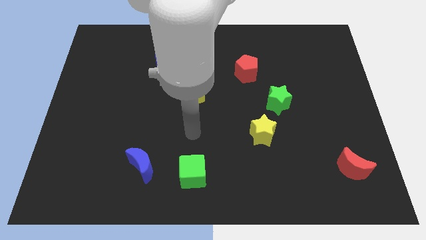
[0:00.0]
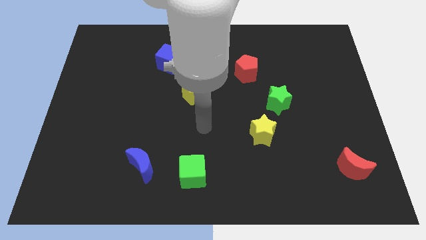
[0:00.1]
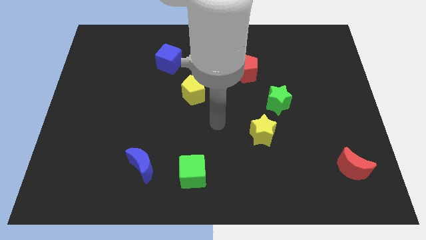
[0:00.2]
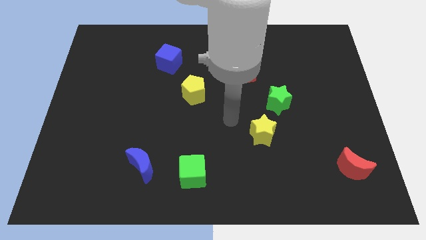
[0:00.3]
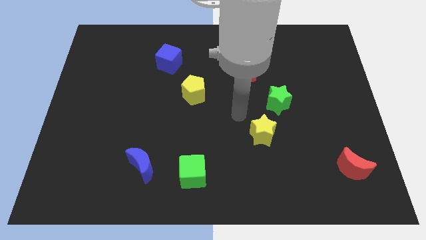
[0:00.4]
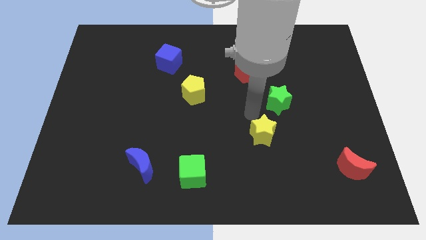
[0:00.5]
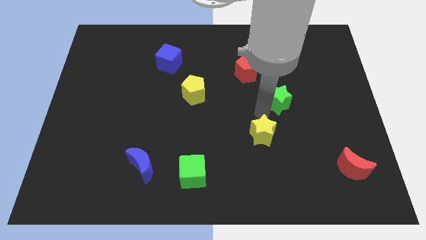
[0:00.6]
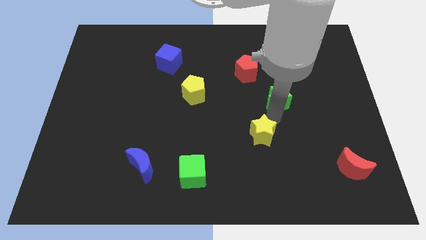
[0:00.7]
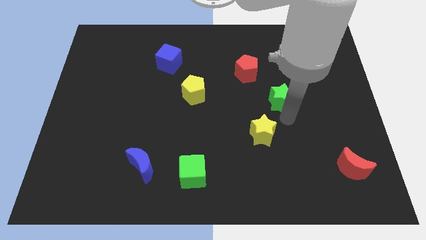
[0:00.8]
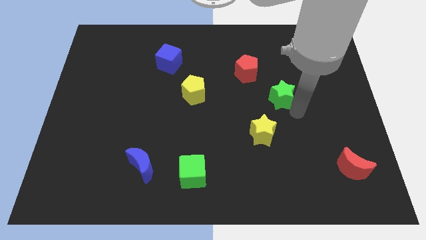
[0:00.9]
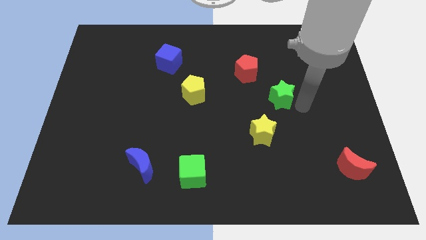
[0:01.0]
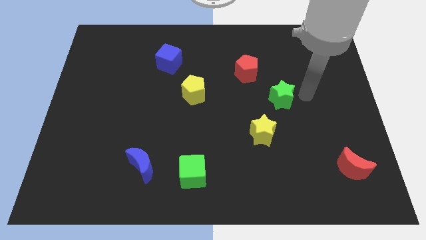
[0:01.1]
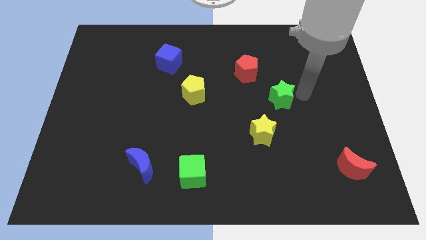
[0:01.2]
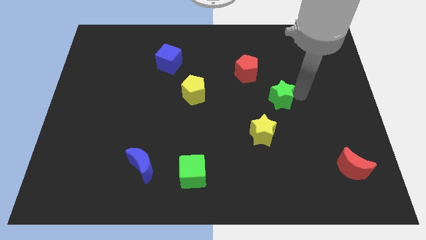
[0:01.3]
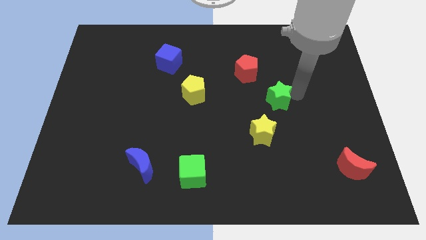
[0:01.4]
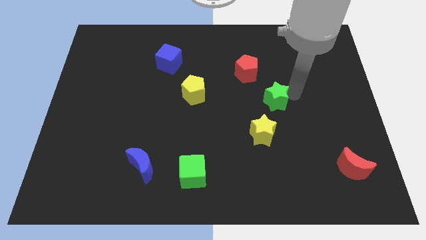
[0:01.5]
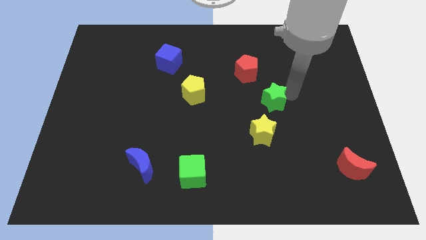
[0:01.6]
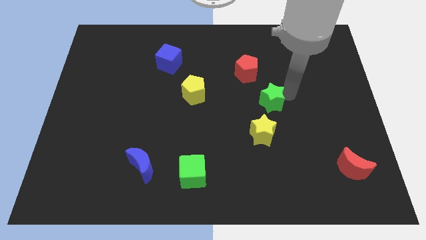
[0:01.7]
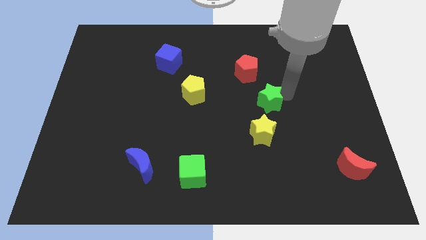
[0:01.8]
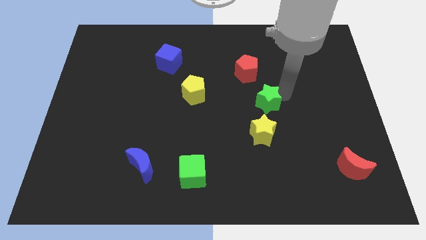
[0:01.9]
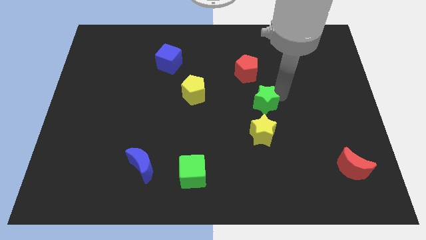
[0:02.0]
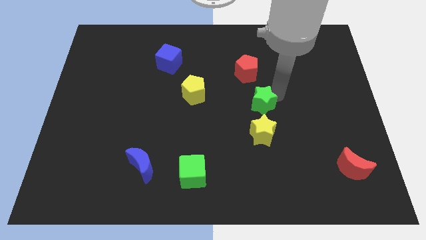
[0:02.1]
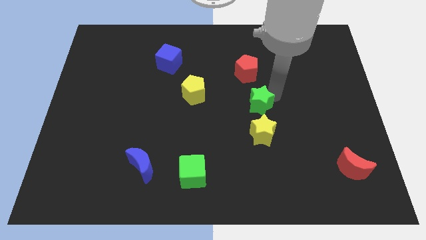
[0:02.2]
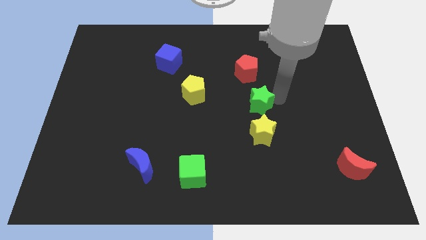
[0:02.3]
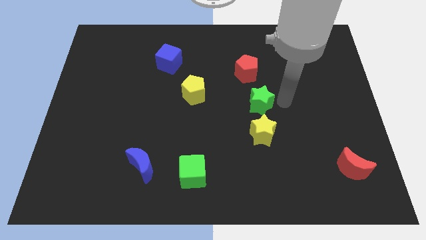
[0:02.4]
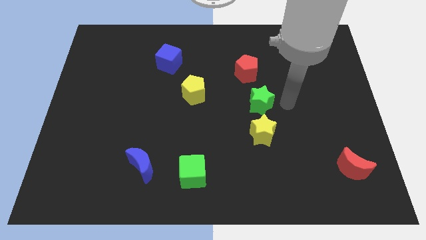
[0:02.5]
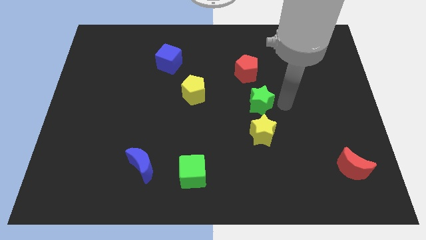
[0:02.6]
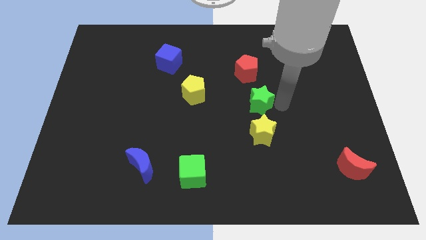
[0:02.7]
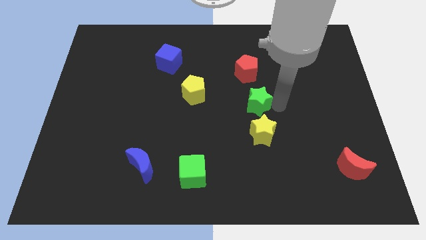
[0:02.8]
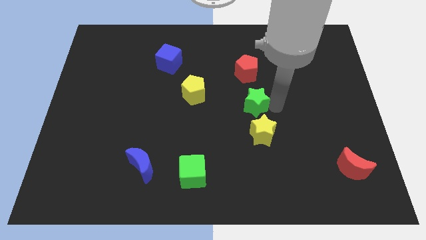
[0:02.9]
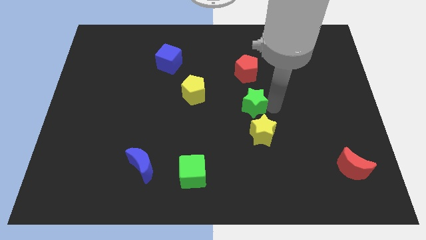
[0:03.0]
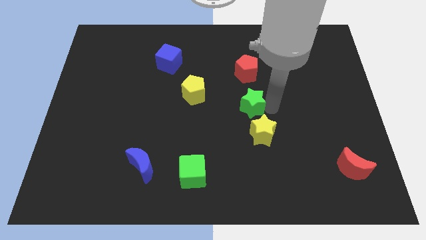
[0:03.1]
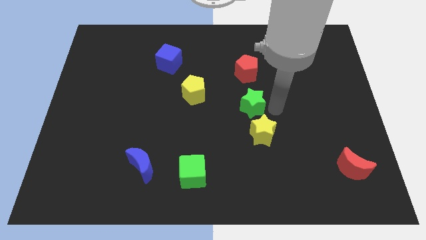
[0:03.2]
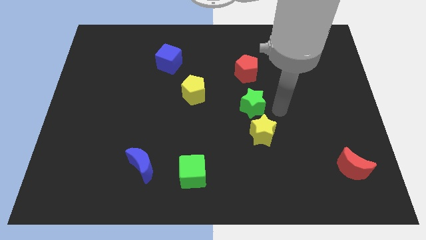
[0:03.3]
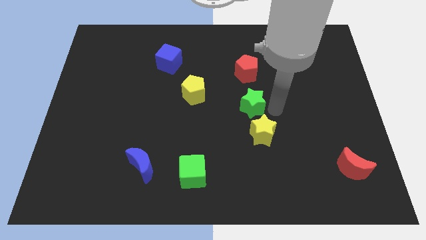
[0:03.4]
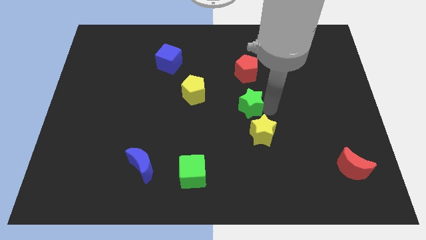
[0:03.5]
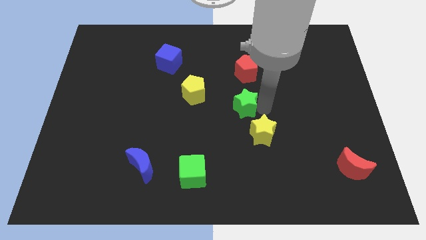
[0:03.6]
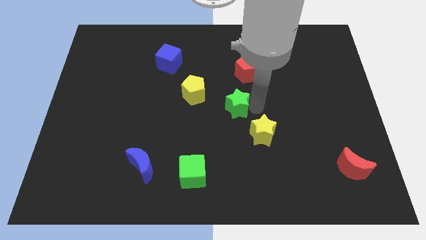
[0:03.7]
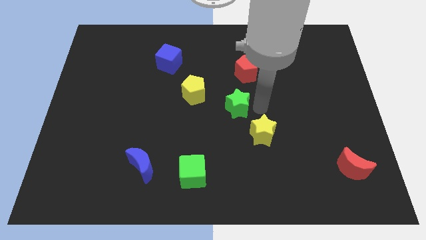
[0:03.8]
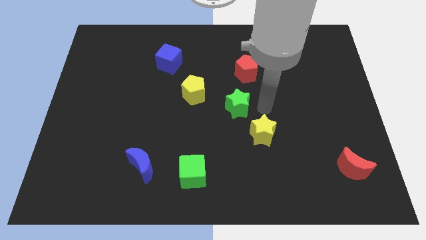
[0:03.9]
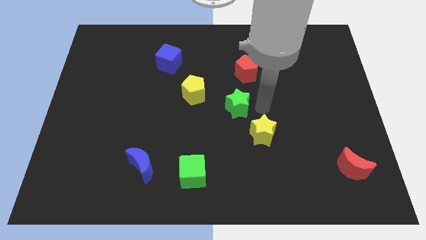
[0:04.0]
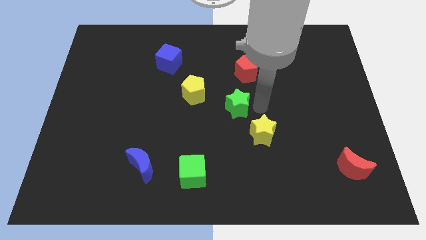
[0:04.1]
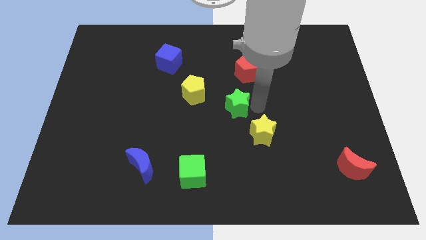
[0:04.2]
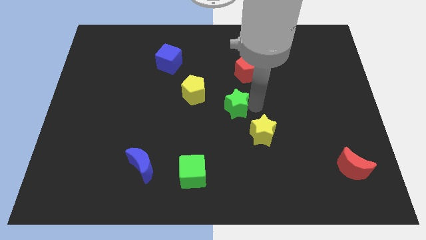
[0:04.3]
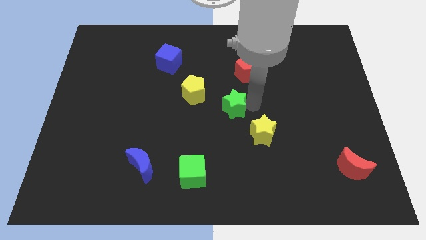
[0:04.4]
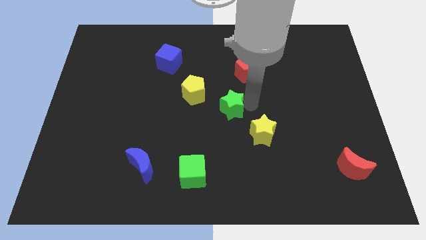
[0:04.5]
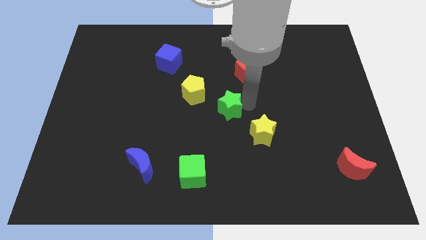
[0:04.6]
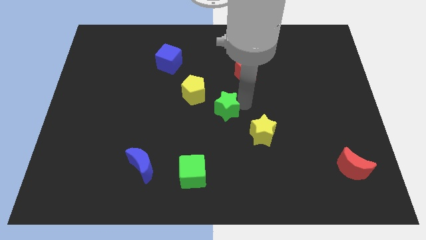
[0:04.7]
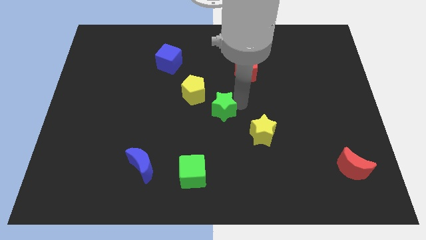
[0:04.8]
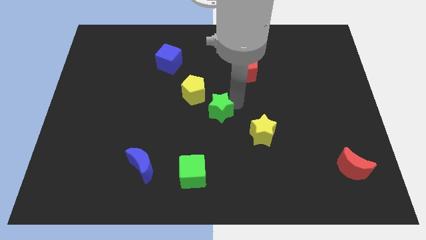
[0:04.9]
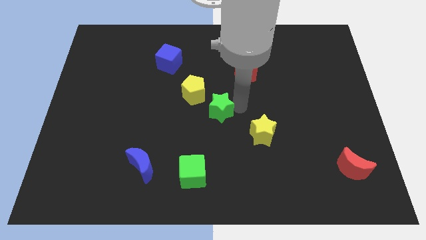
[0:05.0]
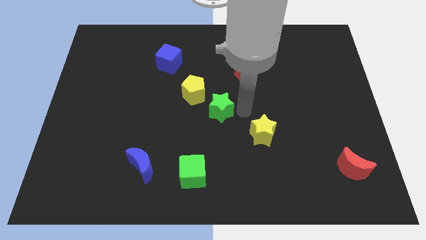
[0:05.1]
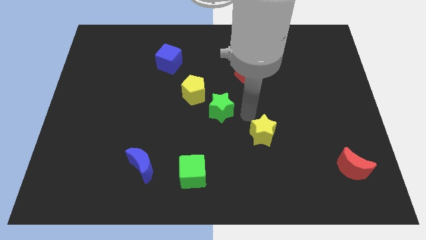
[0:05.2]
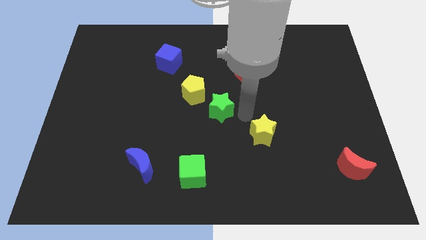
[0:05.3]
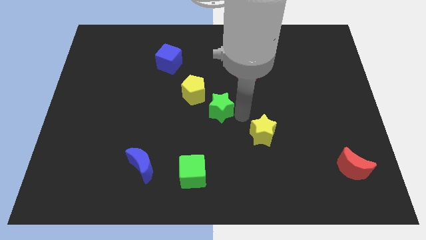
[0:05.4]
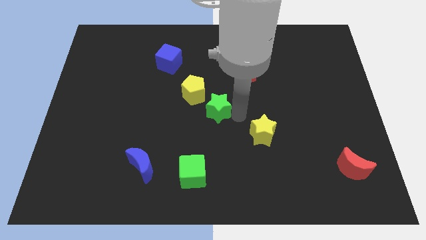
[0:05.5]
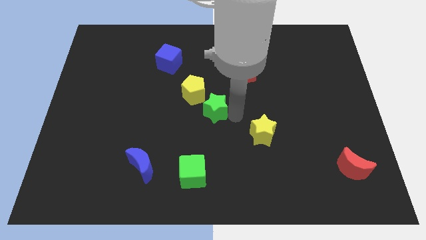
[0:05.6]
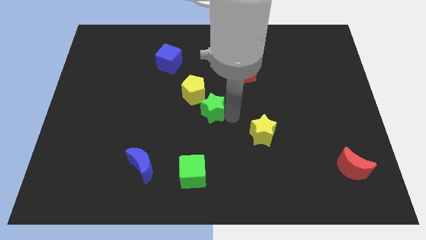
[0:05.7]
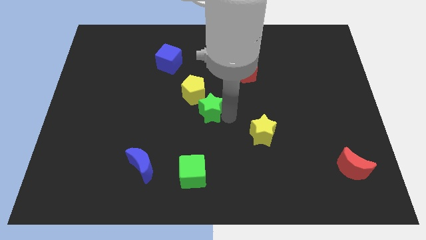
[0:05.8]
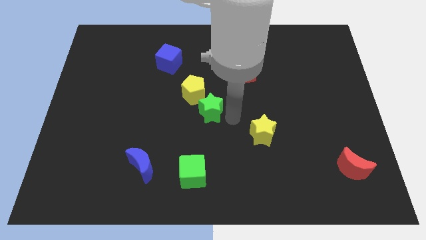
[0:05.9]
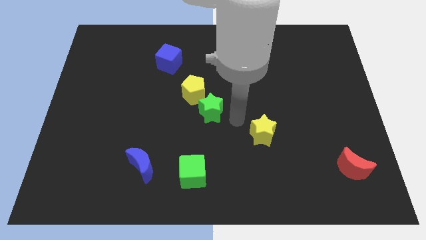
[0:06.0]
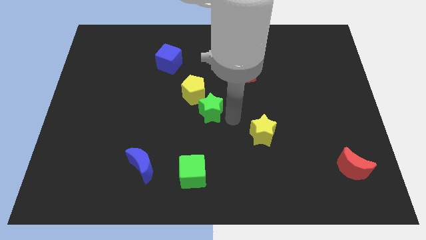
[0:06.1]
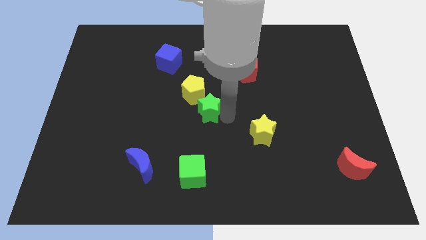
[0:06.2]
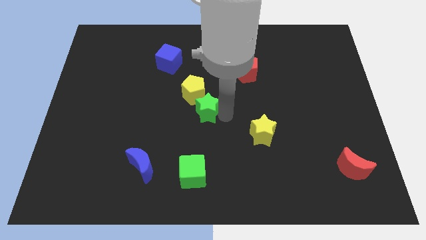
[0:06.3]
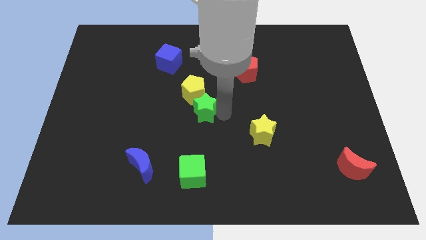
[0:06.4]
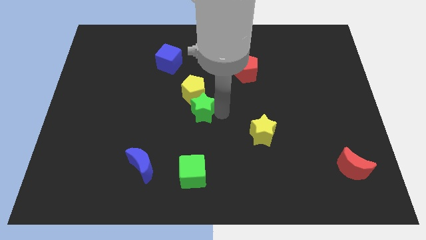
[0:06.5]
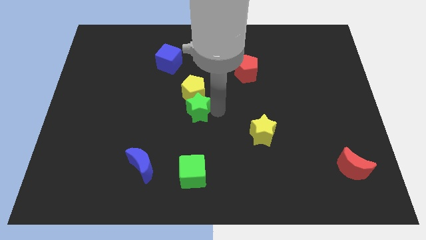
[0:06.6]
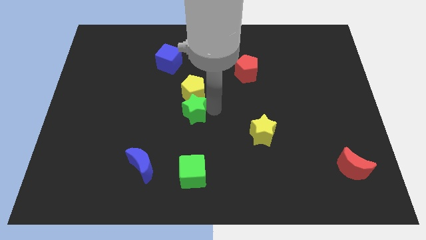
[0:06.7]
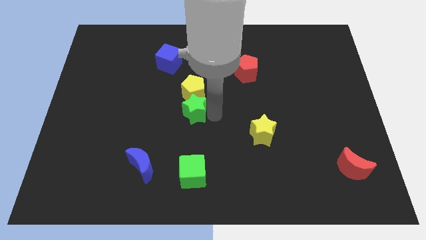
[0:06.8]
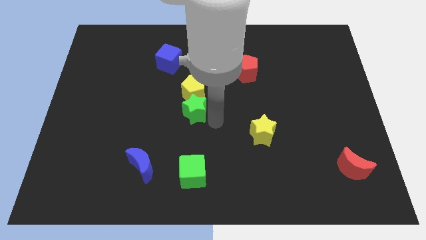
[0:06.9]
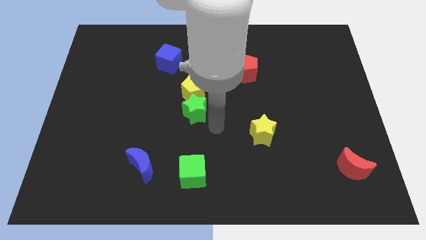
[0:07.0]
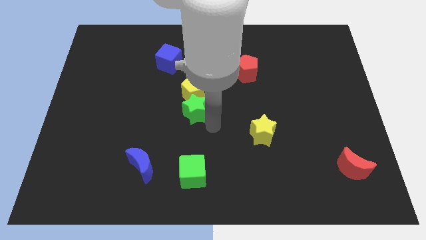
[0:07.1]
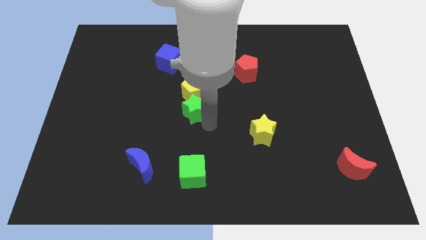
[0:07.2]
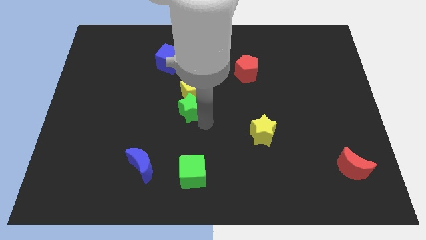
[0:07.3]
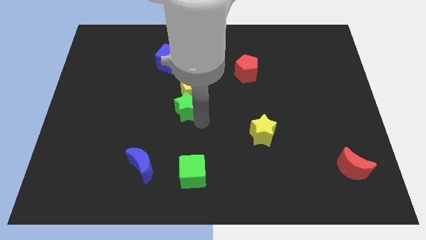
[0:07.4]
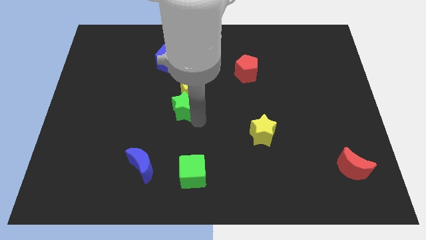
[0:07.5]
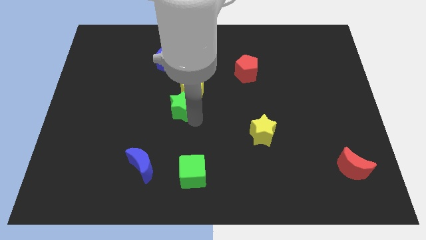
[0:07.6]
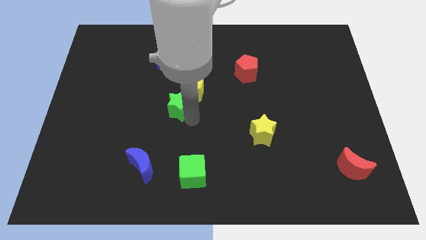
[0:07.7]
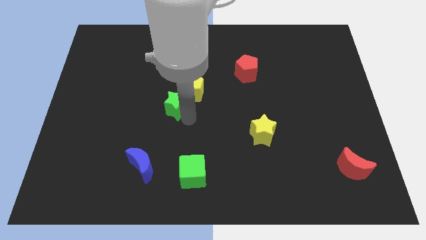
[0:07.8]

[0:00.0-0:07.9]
put the green star to the bottom of the blue cube
